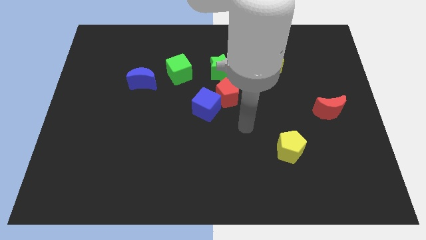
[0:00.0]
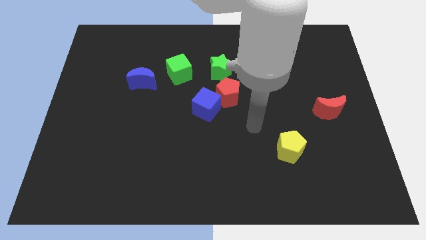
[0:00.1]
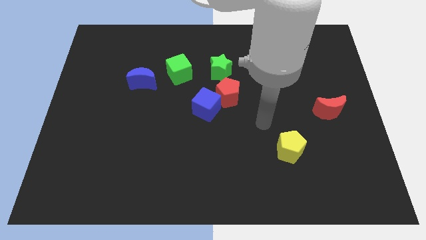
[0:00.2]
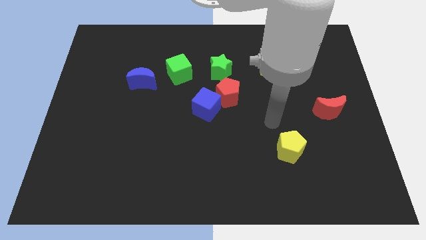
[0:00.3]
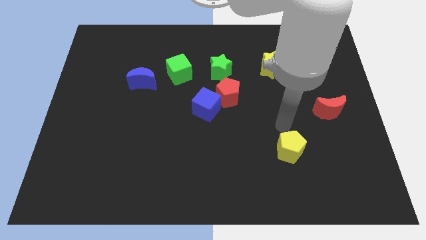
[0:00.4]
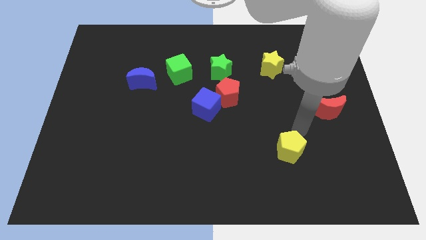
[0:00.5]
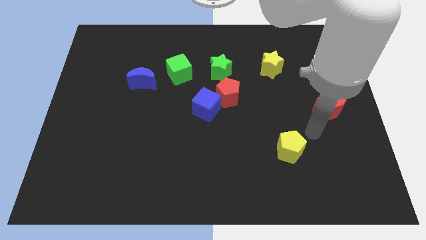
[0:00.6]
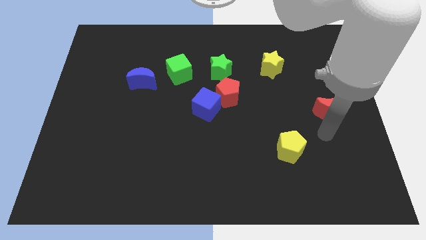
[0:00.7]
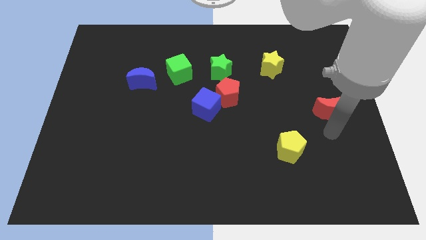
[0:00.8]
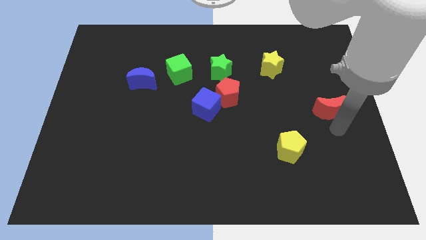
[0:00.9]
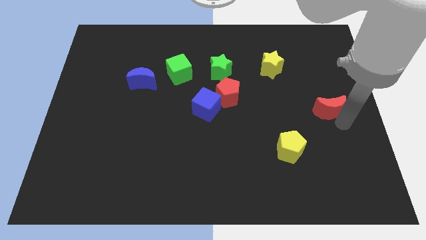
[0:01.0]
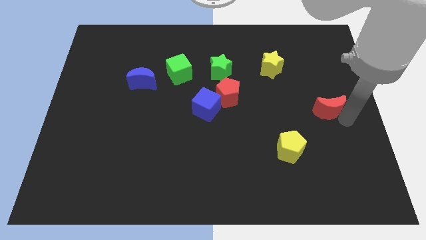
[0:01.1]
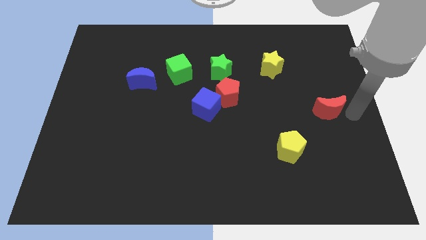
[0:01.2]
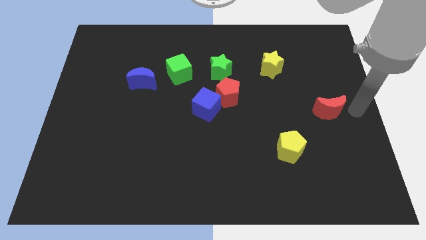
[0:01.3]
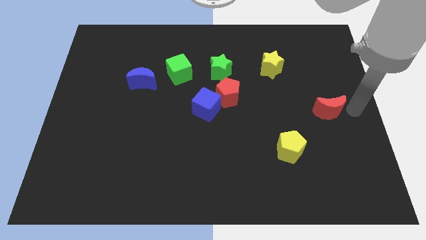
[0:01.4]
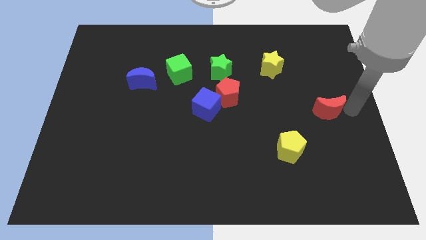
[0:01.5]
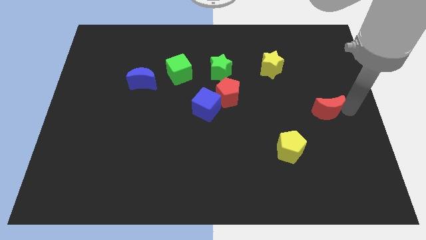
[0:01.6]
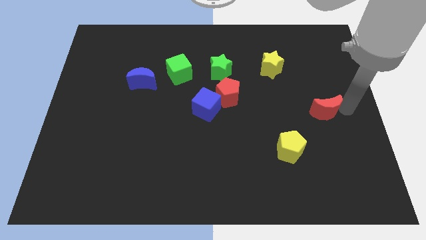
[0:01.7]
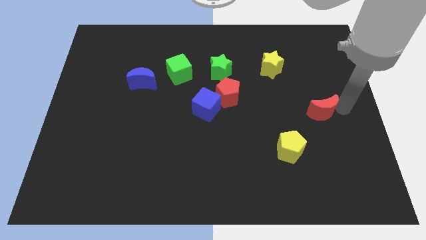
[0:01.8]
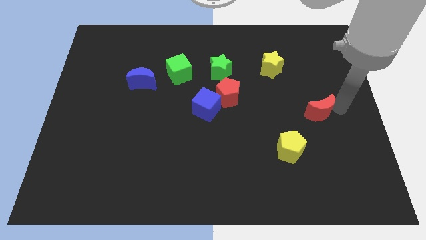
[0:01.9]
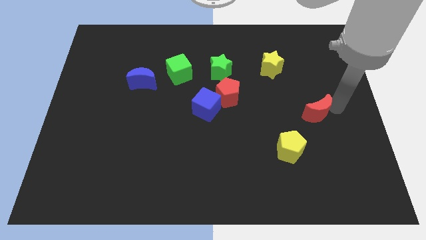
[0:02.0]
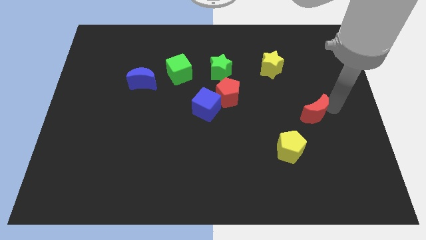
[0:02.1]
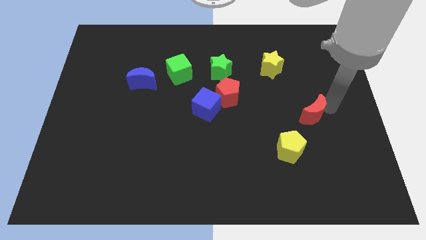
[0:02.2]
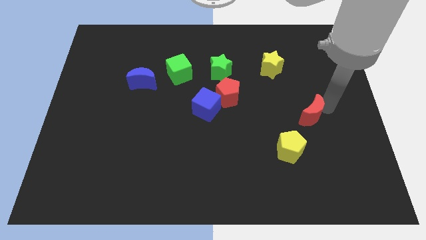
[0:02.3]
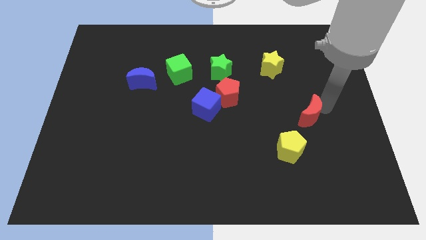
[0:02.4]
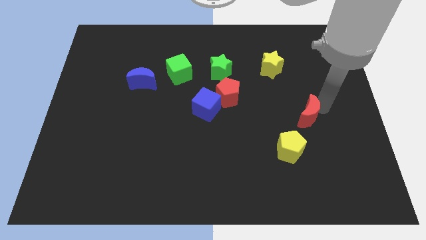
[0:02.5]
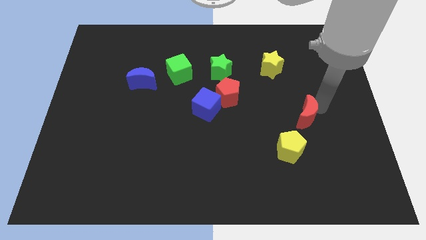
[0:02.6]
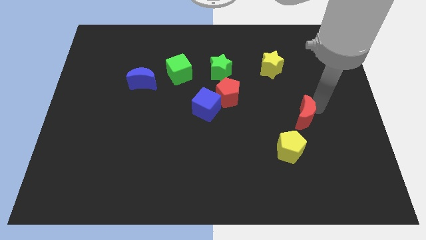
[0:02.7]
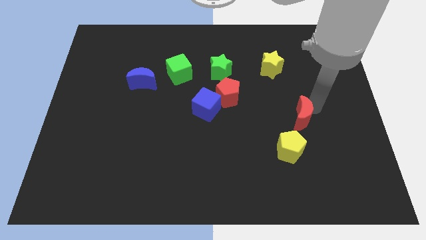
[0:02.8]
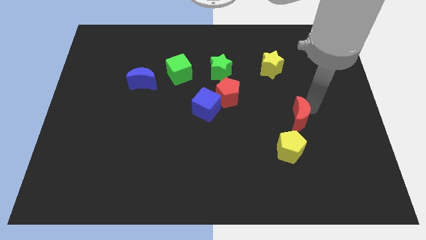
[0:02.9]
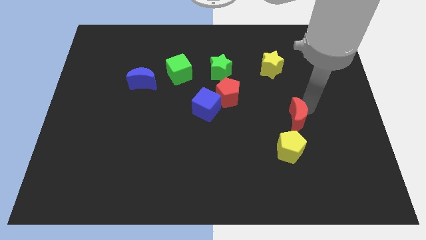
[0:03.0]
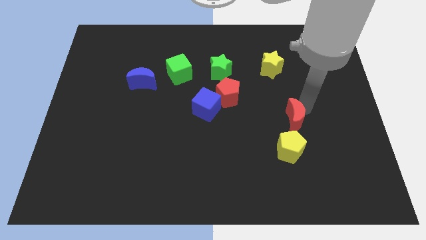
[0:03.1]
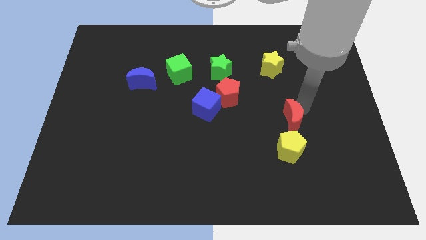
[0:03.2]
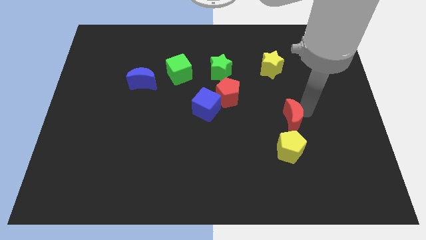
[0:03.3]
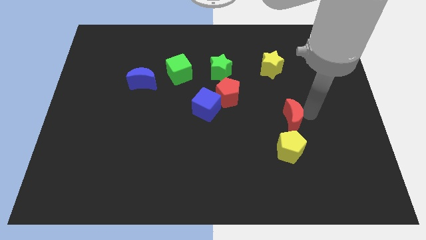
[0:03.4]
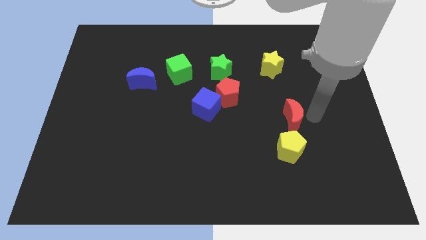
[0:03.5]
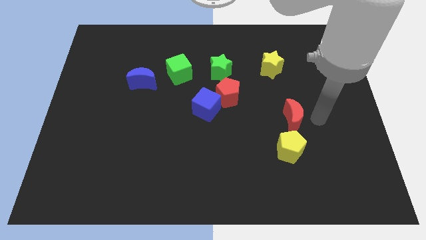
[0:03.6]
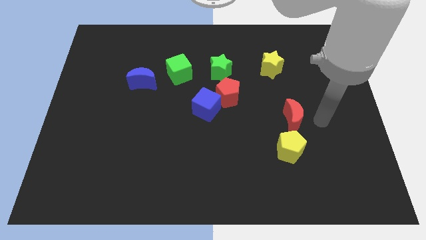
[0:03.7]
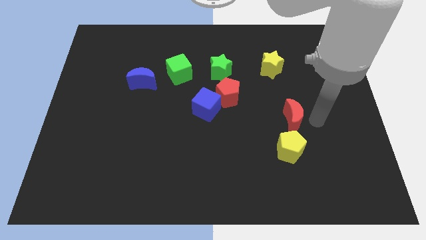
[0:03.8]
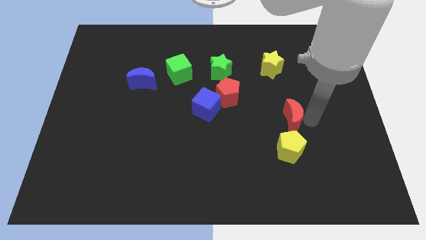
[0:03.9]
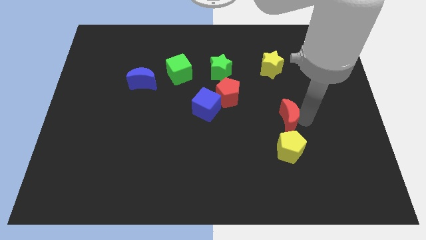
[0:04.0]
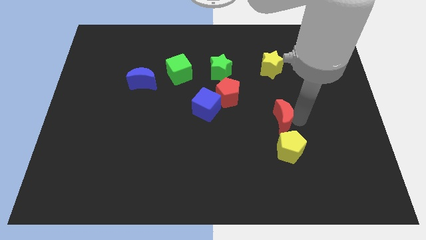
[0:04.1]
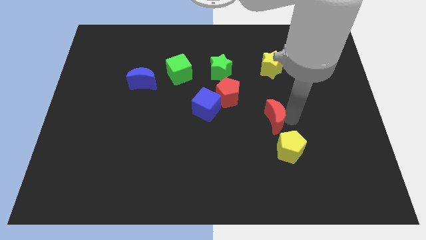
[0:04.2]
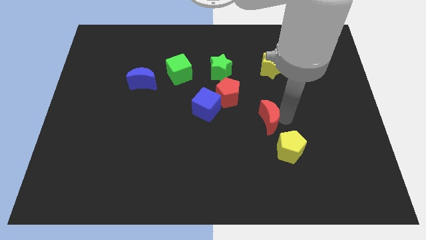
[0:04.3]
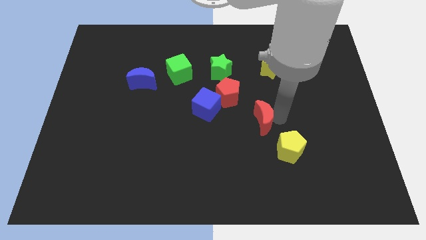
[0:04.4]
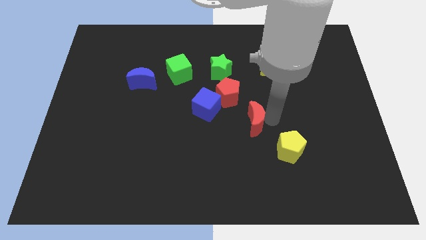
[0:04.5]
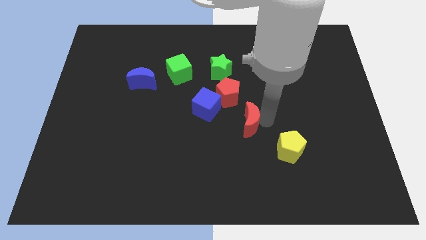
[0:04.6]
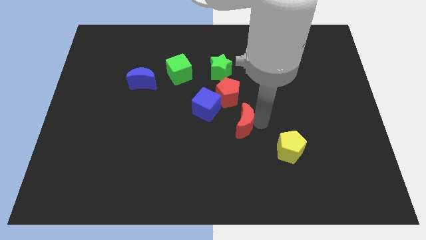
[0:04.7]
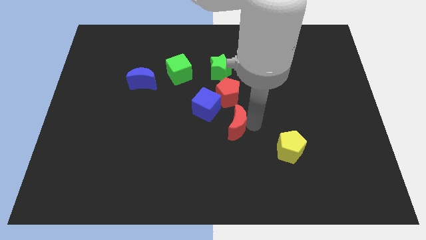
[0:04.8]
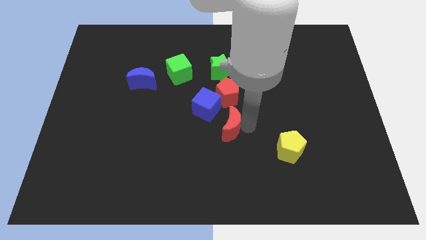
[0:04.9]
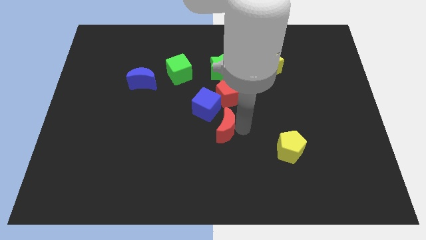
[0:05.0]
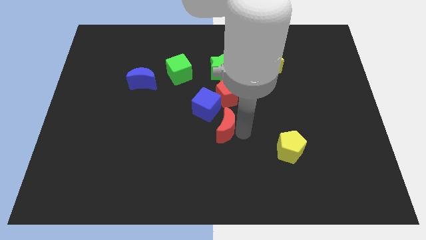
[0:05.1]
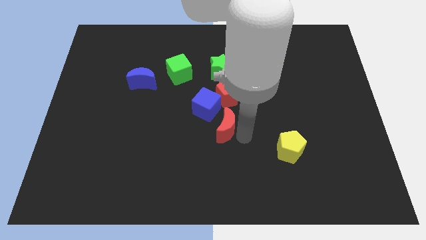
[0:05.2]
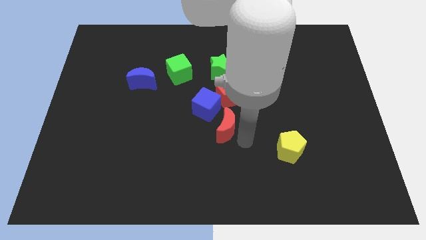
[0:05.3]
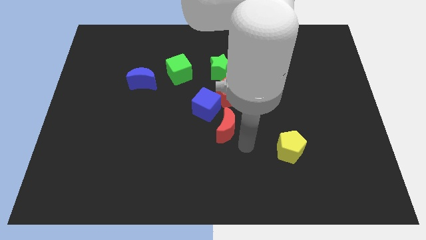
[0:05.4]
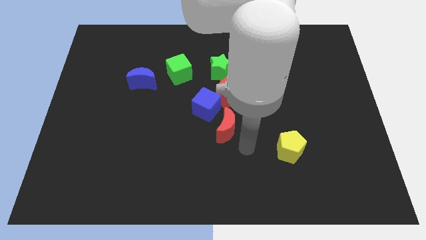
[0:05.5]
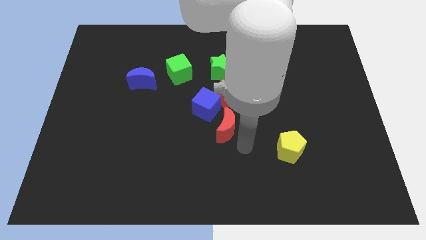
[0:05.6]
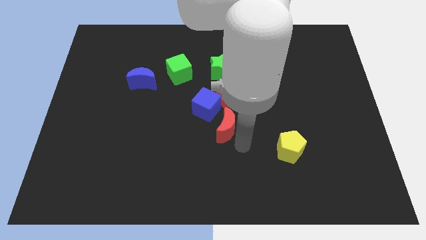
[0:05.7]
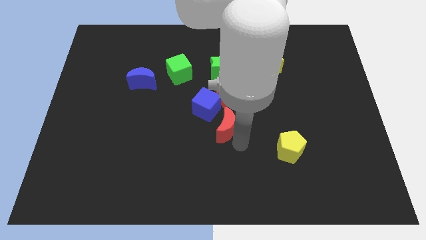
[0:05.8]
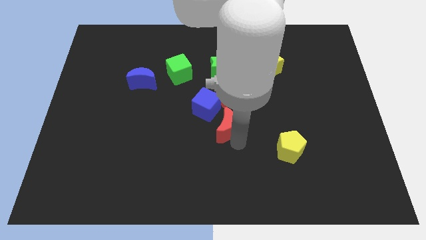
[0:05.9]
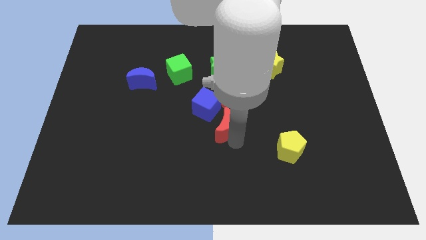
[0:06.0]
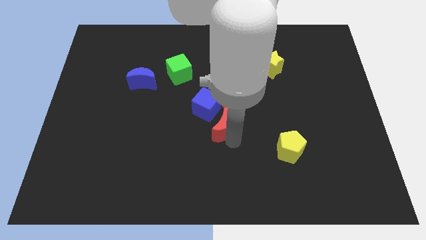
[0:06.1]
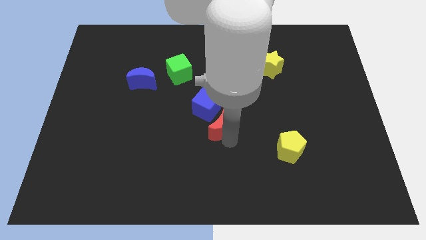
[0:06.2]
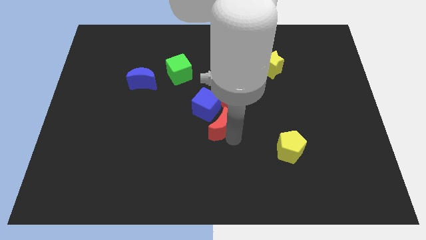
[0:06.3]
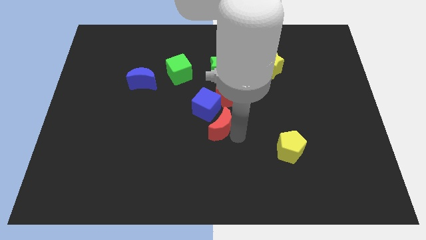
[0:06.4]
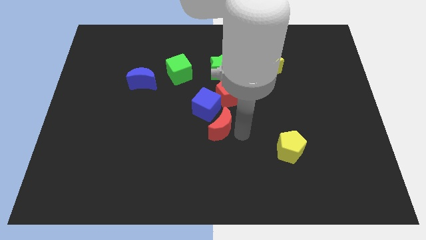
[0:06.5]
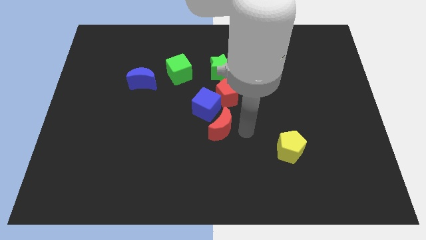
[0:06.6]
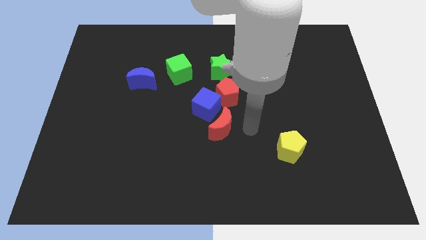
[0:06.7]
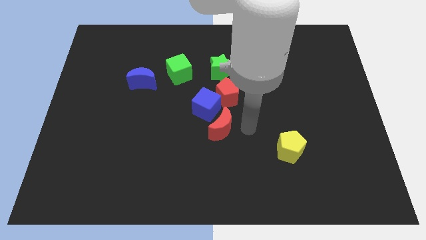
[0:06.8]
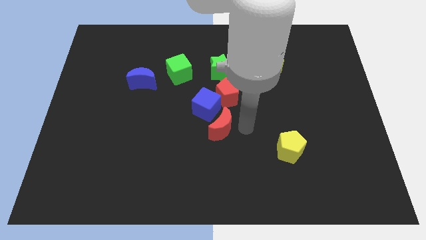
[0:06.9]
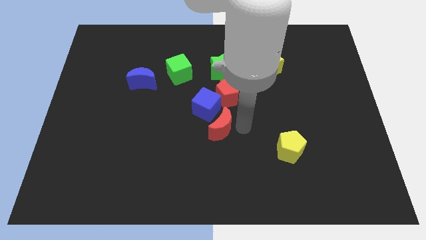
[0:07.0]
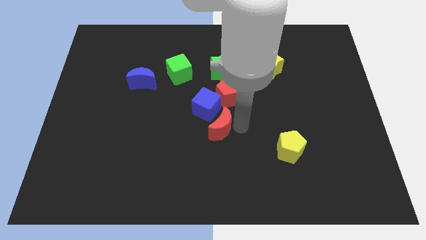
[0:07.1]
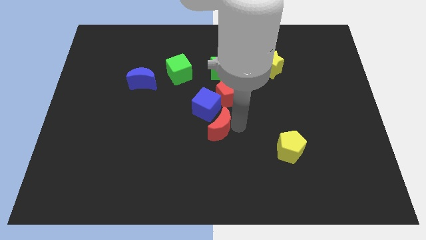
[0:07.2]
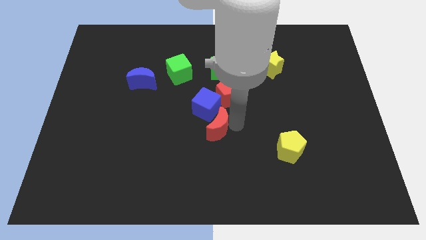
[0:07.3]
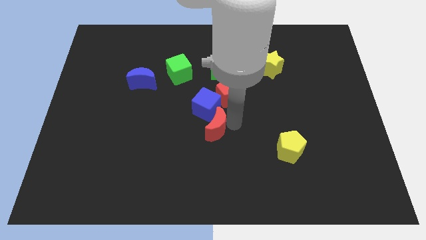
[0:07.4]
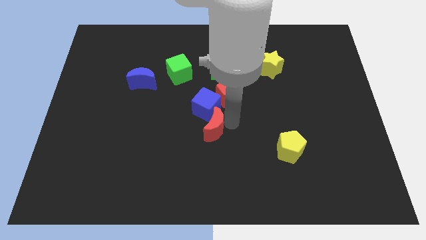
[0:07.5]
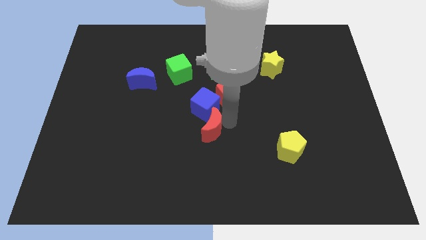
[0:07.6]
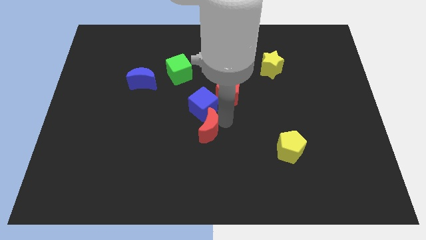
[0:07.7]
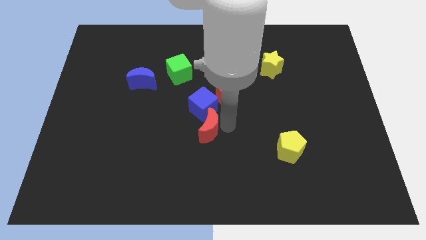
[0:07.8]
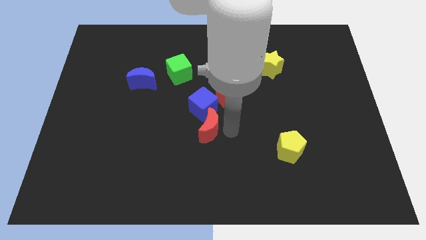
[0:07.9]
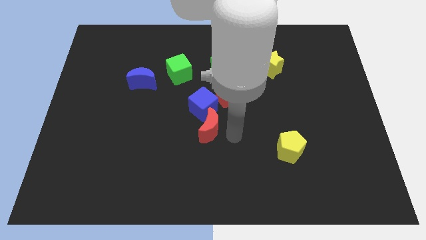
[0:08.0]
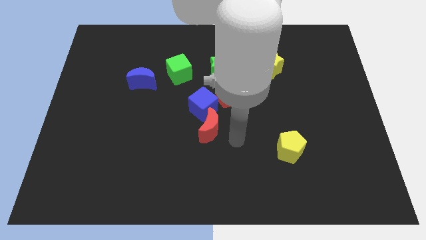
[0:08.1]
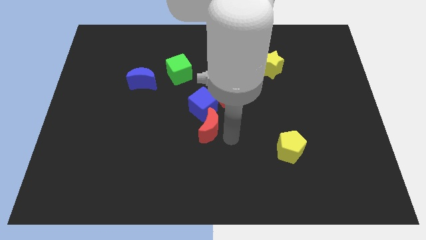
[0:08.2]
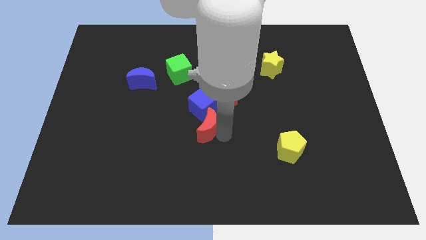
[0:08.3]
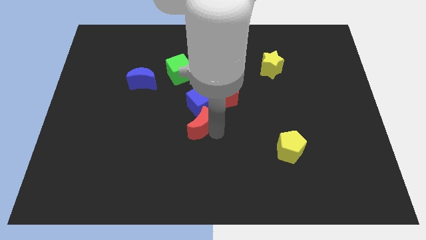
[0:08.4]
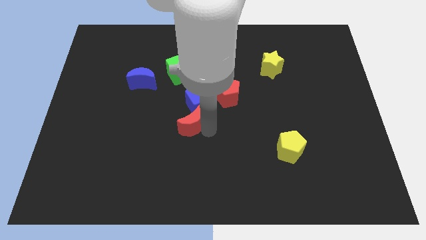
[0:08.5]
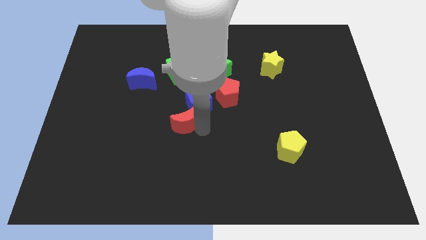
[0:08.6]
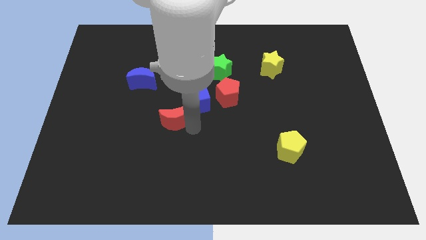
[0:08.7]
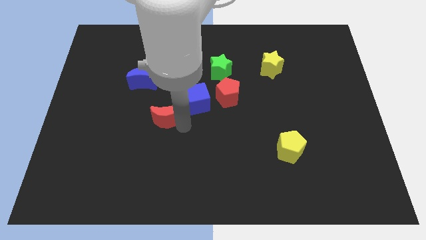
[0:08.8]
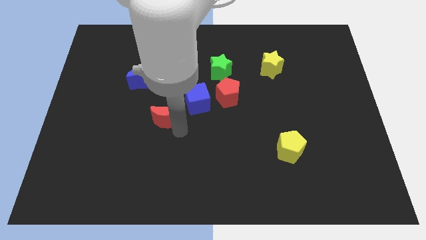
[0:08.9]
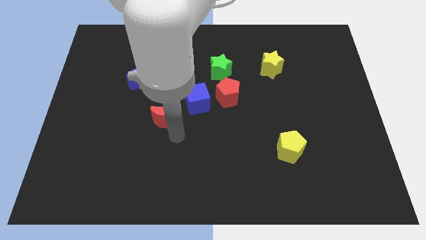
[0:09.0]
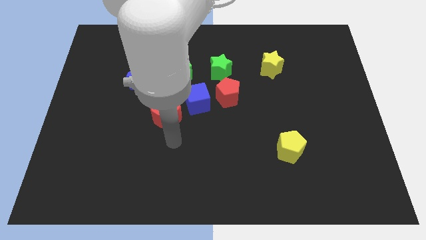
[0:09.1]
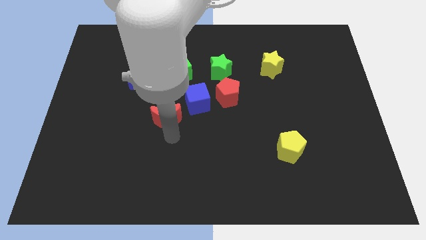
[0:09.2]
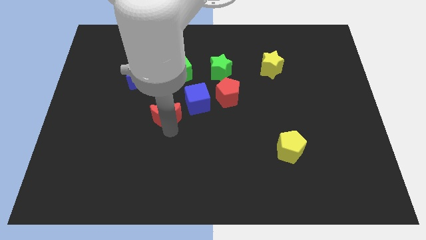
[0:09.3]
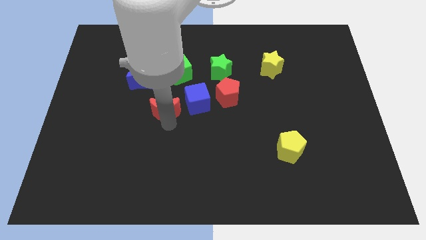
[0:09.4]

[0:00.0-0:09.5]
push the red moon to the bottom right of the blue moon
